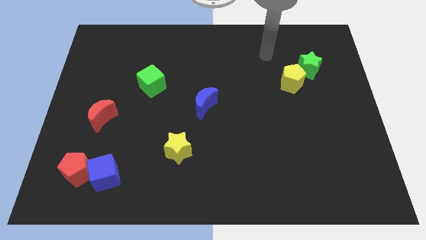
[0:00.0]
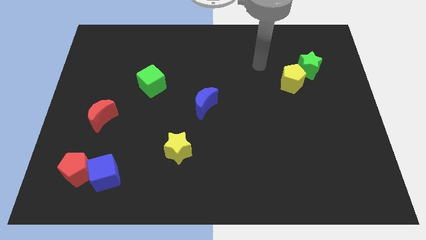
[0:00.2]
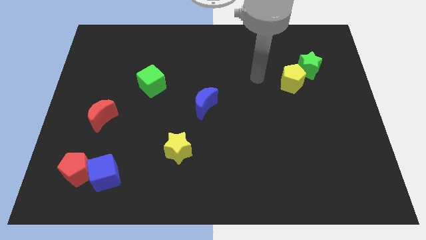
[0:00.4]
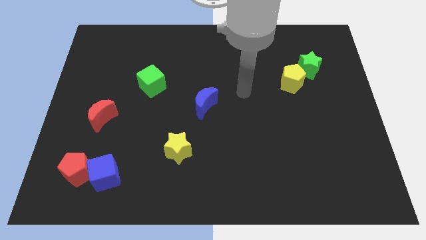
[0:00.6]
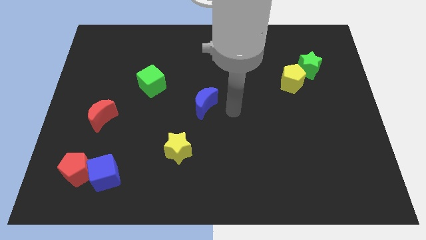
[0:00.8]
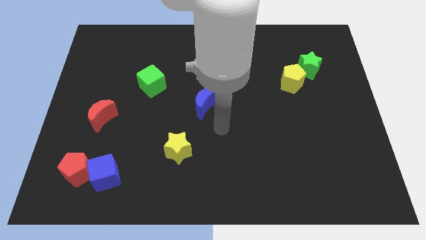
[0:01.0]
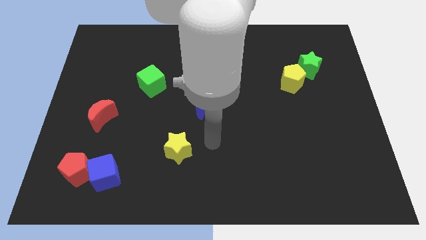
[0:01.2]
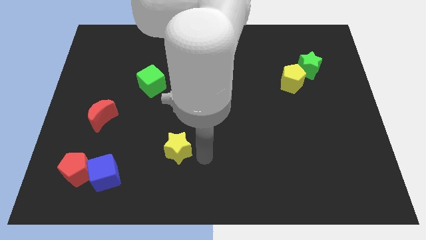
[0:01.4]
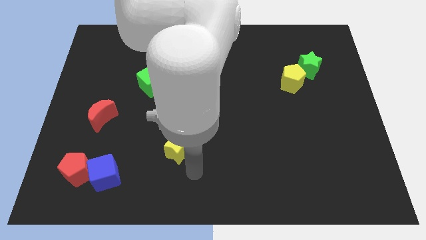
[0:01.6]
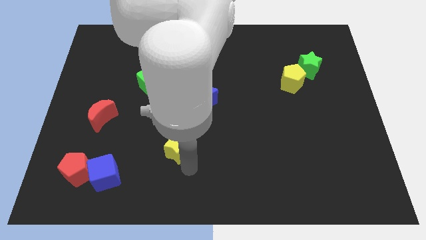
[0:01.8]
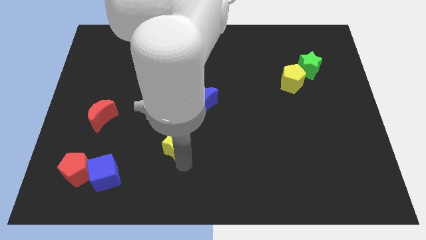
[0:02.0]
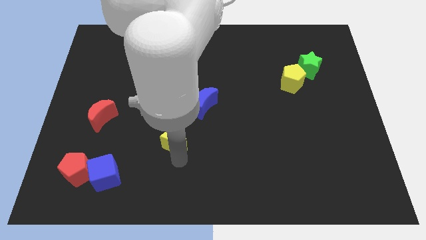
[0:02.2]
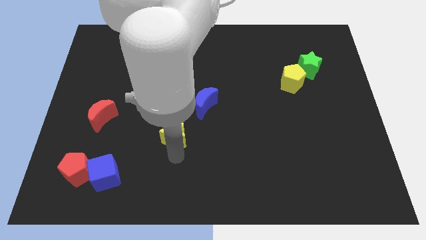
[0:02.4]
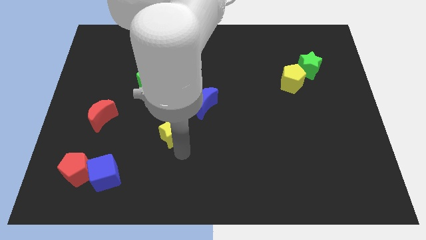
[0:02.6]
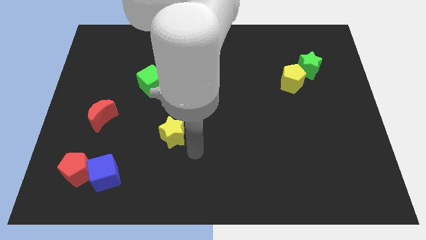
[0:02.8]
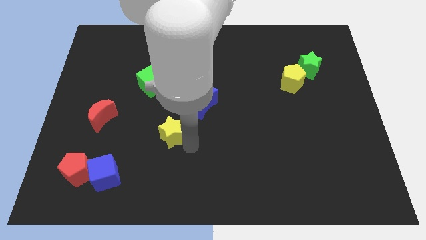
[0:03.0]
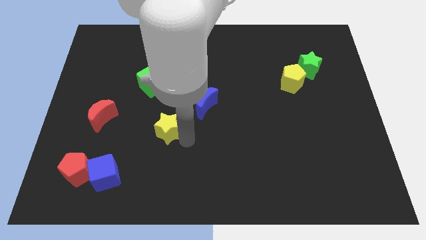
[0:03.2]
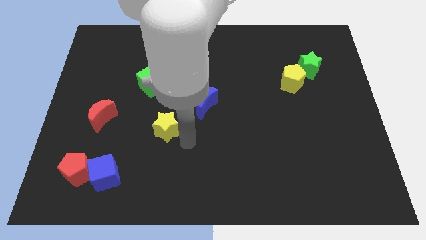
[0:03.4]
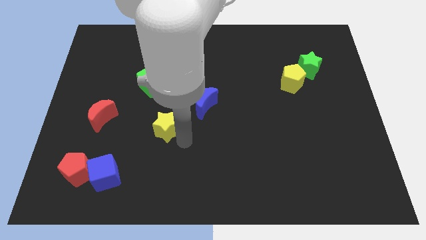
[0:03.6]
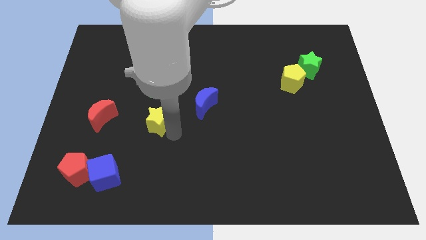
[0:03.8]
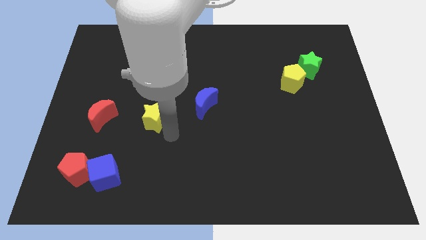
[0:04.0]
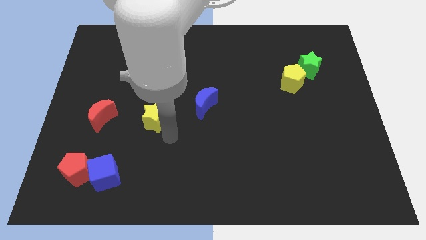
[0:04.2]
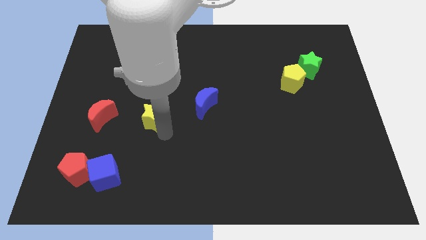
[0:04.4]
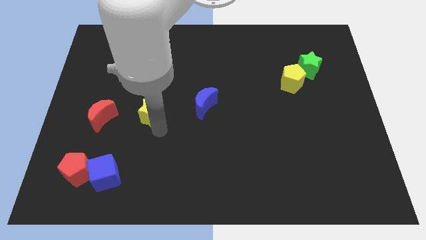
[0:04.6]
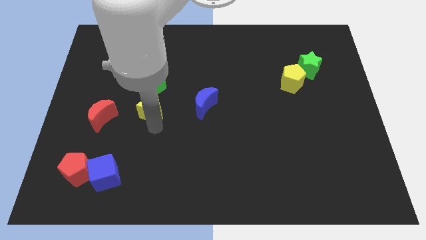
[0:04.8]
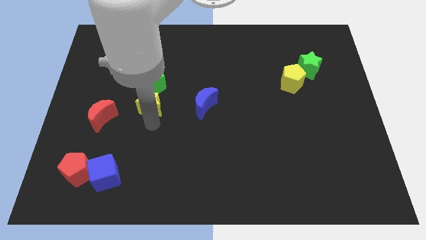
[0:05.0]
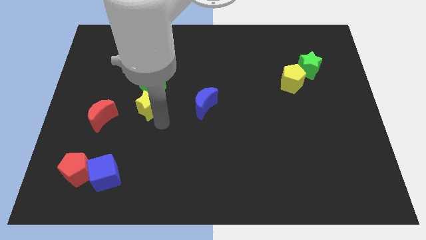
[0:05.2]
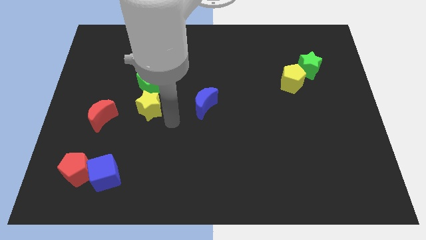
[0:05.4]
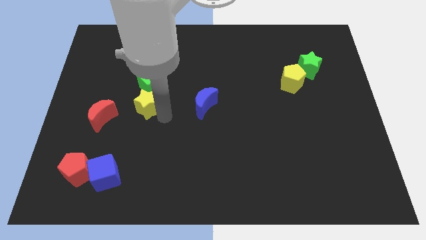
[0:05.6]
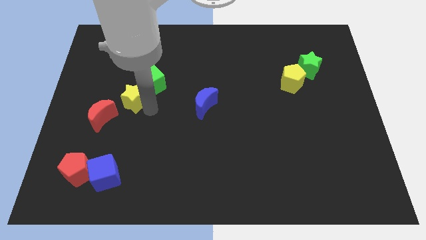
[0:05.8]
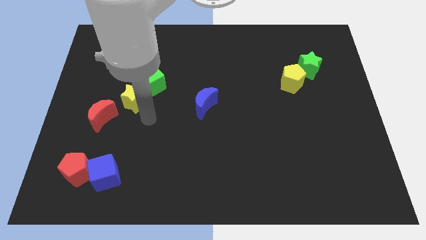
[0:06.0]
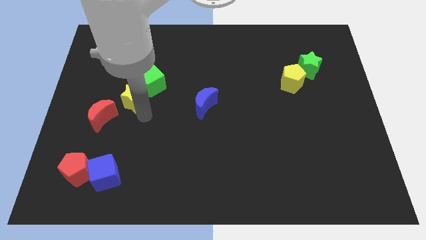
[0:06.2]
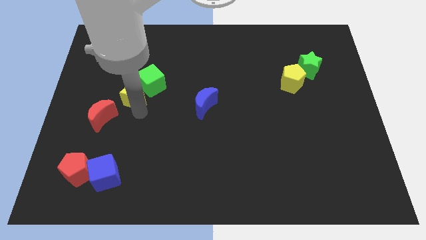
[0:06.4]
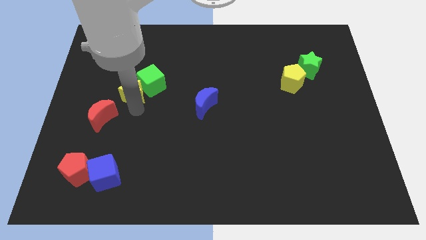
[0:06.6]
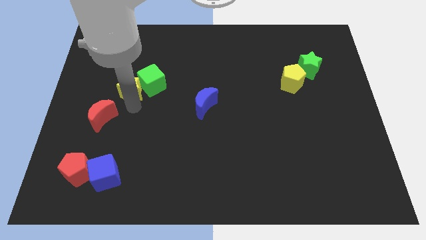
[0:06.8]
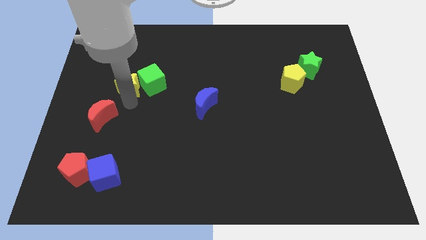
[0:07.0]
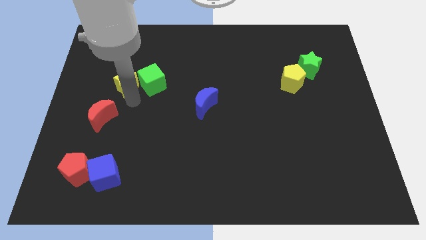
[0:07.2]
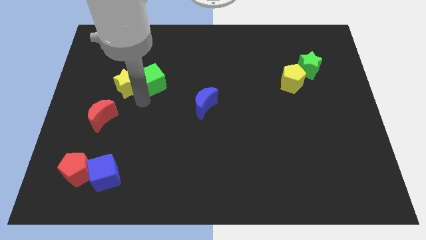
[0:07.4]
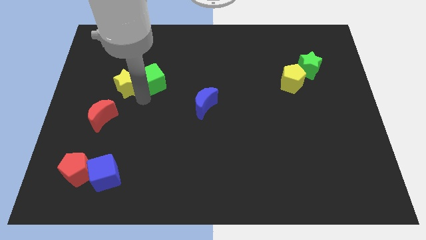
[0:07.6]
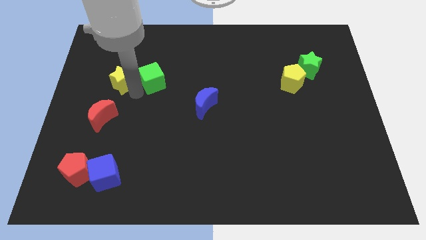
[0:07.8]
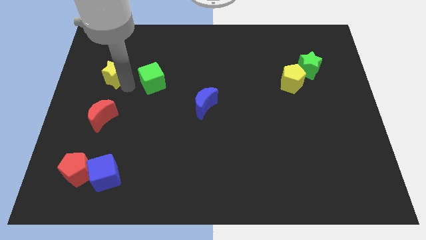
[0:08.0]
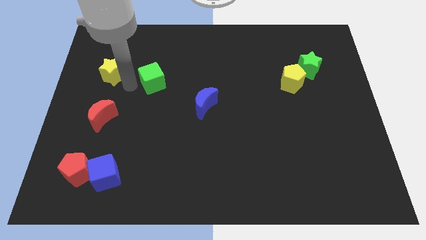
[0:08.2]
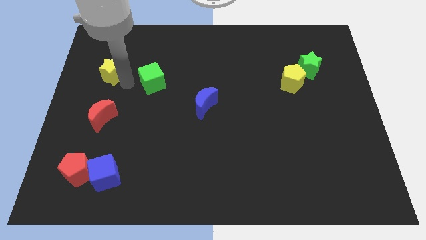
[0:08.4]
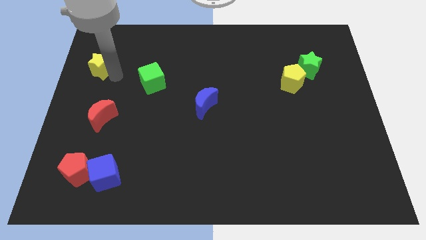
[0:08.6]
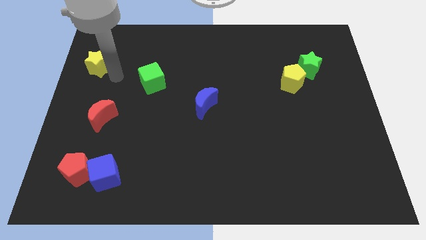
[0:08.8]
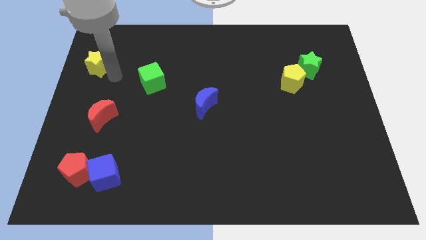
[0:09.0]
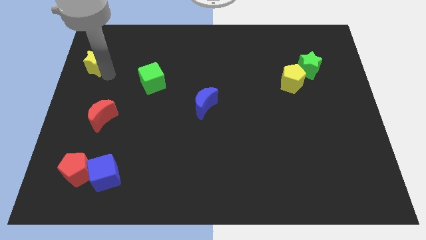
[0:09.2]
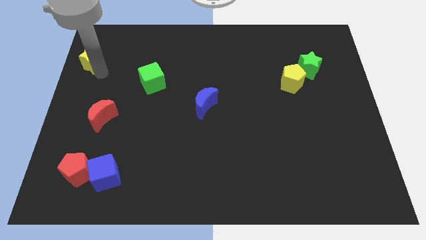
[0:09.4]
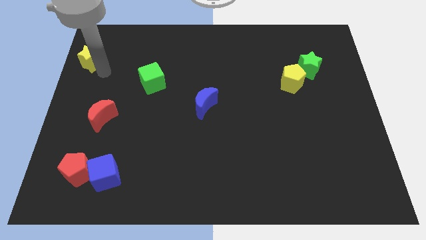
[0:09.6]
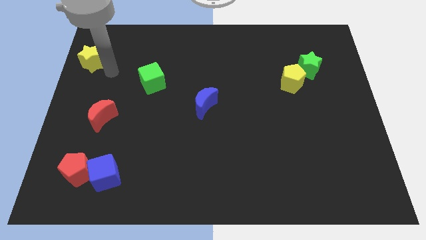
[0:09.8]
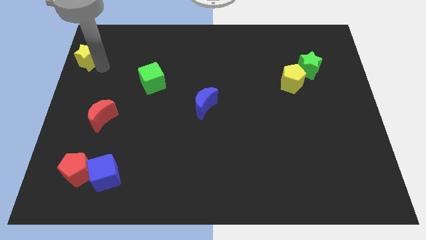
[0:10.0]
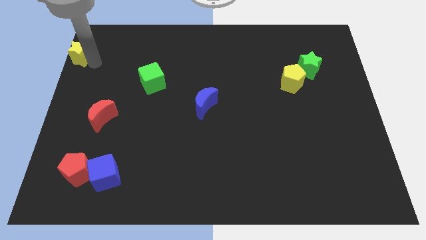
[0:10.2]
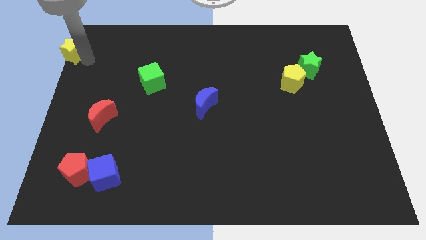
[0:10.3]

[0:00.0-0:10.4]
put the yellow star to the top left corner

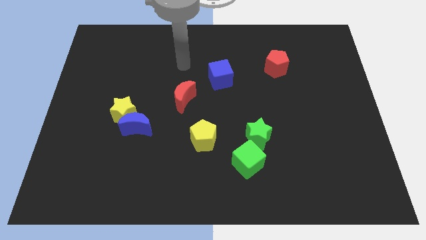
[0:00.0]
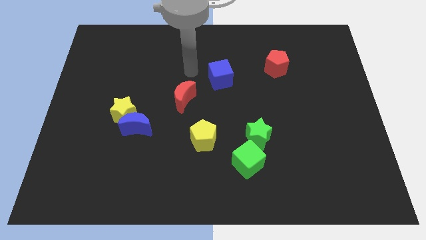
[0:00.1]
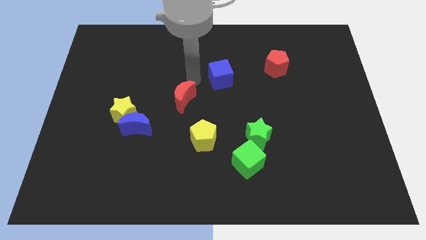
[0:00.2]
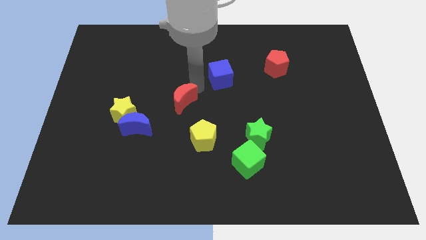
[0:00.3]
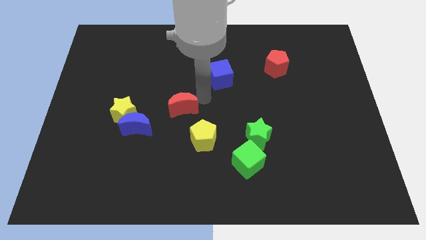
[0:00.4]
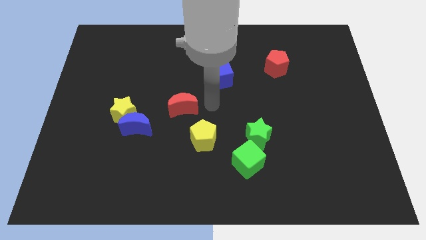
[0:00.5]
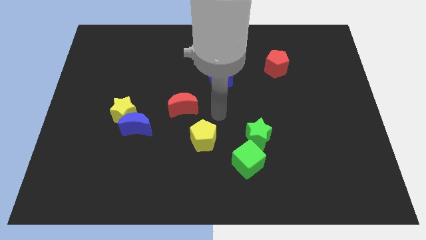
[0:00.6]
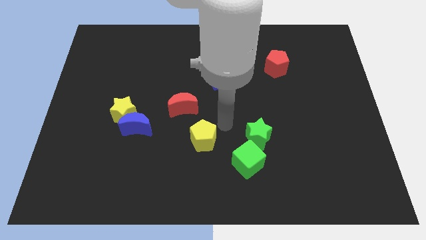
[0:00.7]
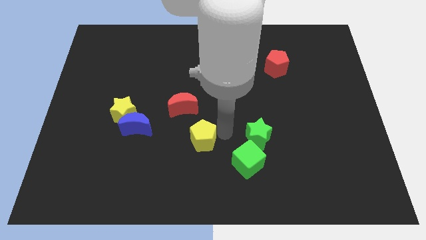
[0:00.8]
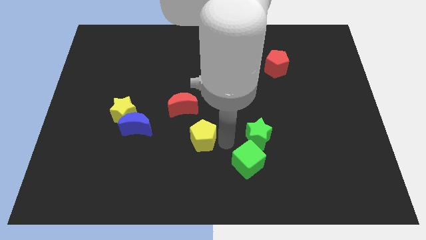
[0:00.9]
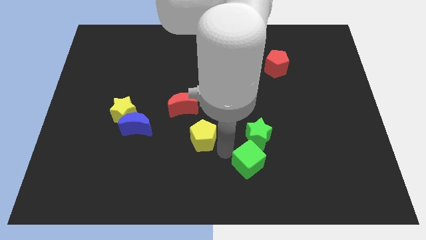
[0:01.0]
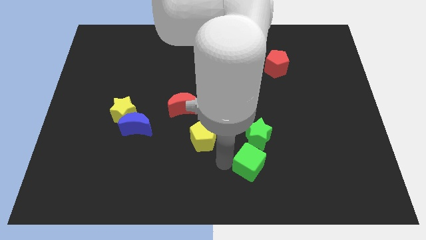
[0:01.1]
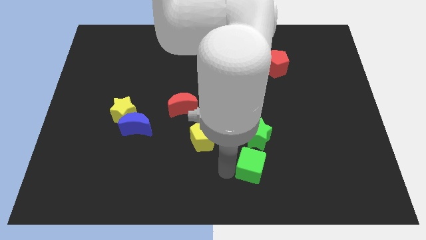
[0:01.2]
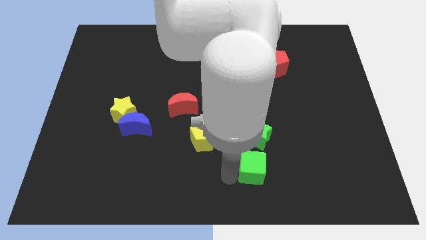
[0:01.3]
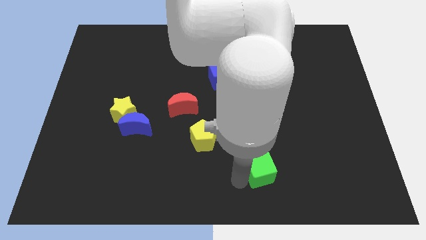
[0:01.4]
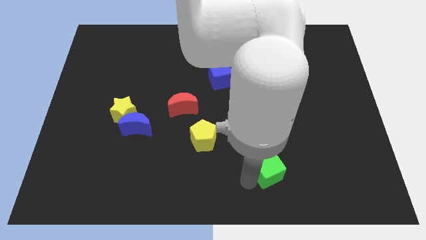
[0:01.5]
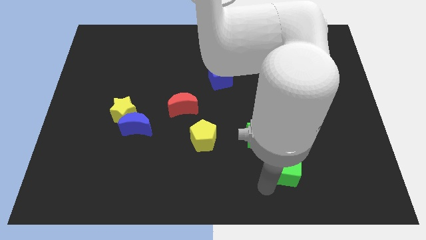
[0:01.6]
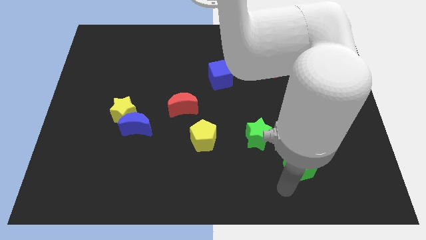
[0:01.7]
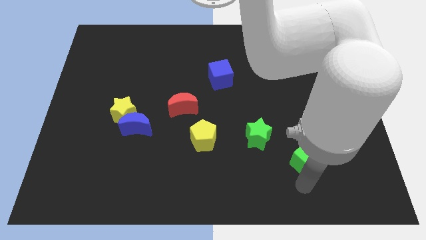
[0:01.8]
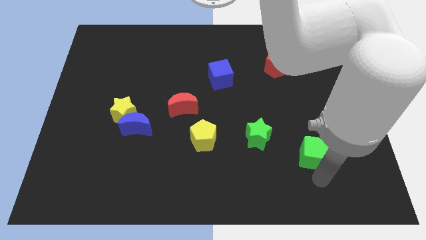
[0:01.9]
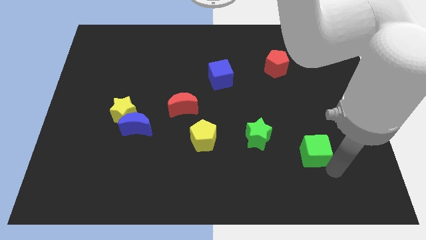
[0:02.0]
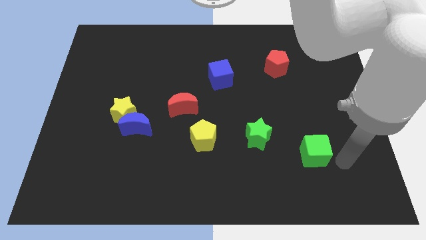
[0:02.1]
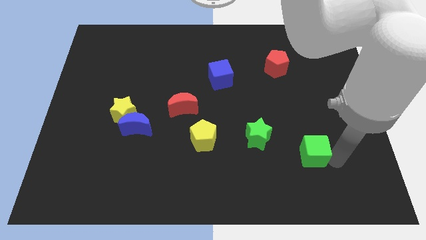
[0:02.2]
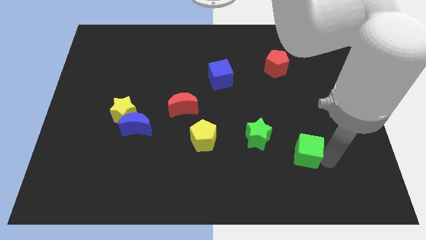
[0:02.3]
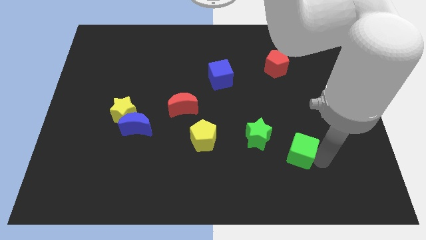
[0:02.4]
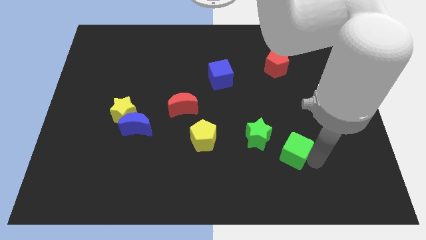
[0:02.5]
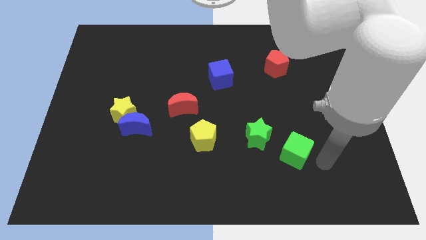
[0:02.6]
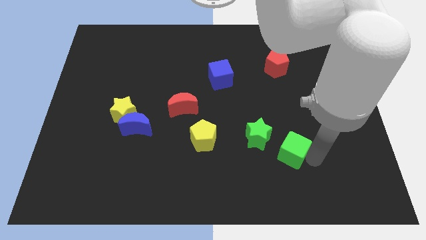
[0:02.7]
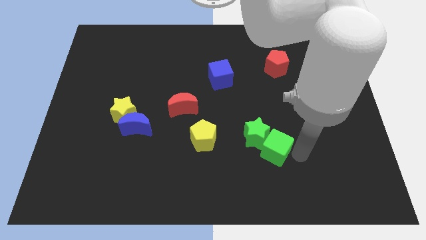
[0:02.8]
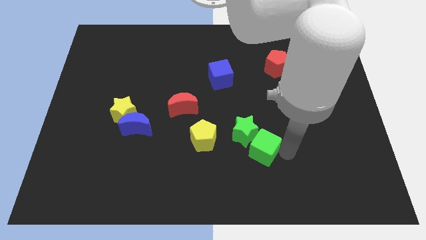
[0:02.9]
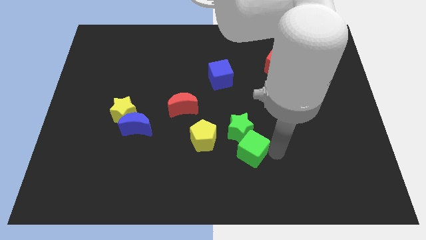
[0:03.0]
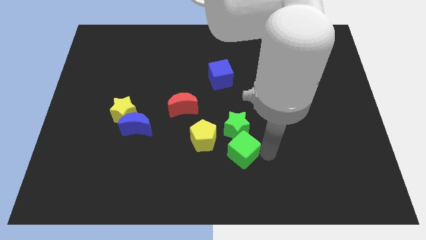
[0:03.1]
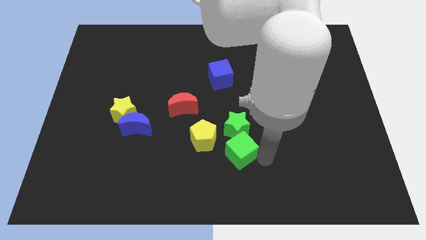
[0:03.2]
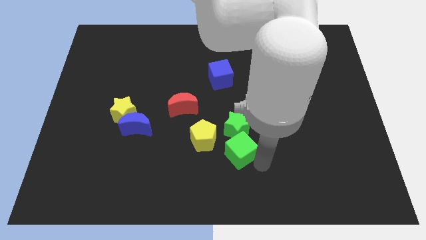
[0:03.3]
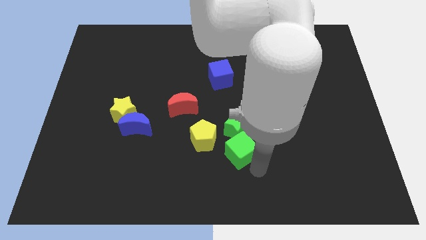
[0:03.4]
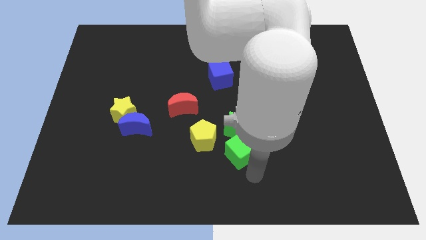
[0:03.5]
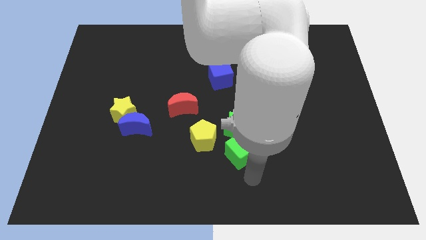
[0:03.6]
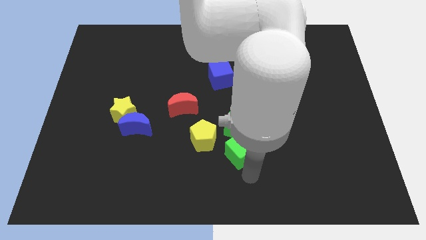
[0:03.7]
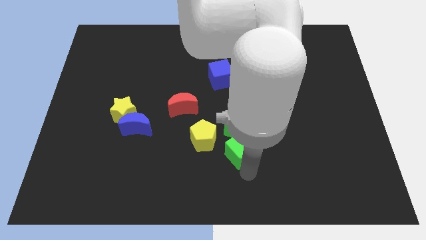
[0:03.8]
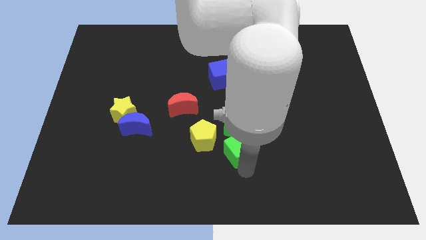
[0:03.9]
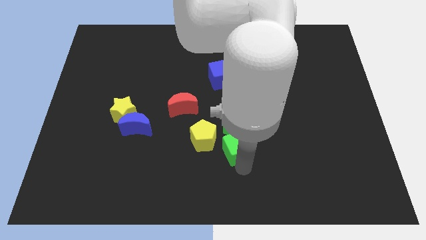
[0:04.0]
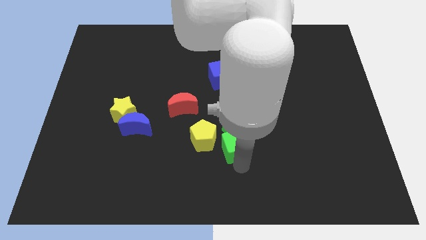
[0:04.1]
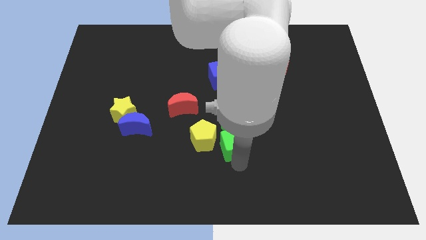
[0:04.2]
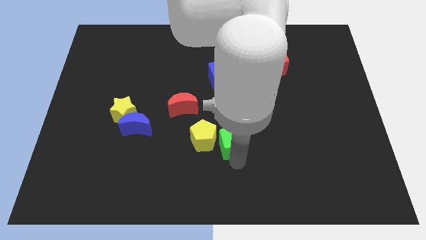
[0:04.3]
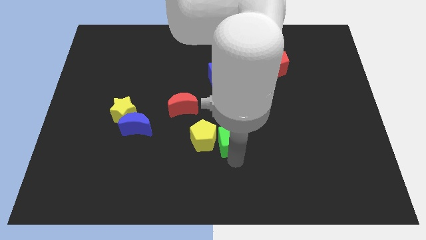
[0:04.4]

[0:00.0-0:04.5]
push the green cube to the center of the board
